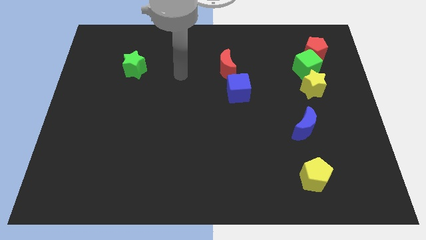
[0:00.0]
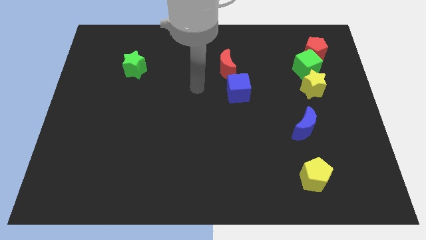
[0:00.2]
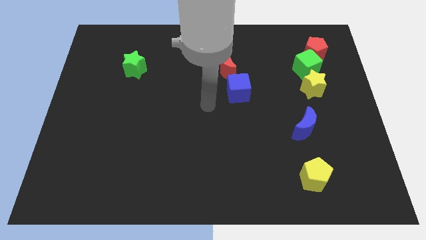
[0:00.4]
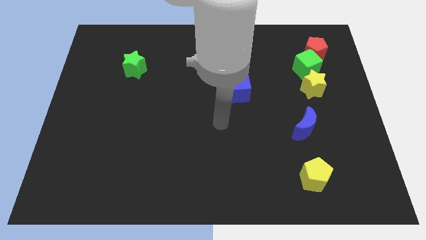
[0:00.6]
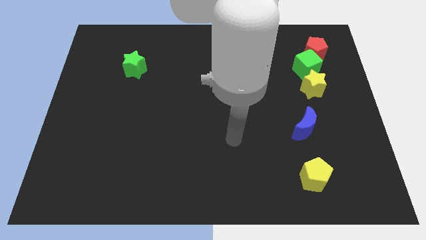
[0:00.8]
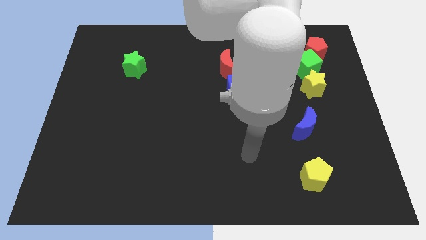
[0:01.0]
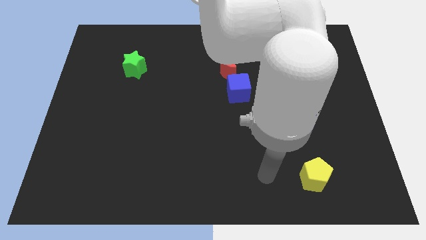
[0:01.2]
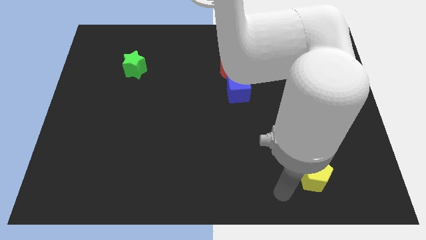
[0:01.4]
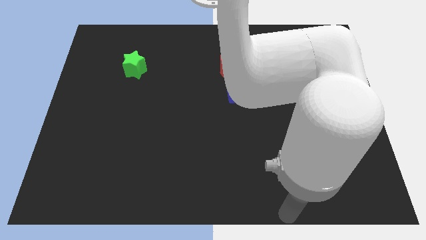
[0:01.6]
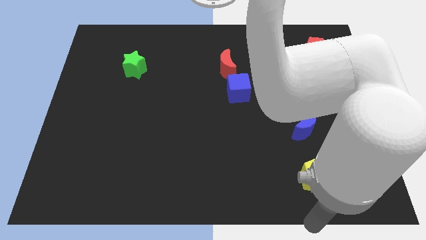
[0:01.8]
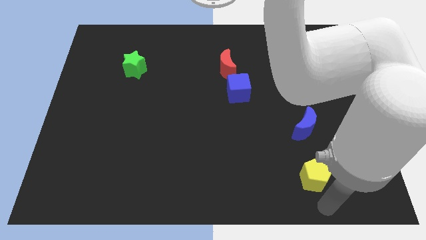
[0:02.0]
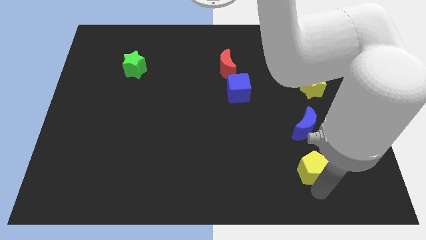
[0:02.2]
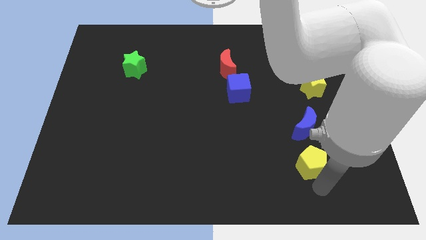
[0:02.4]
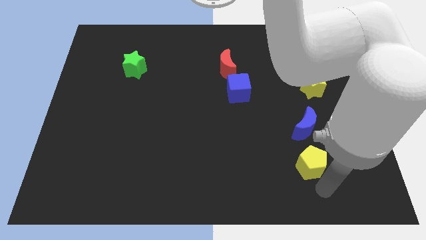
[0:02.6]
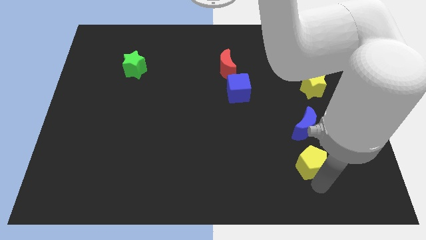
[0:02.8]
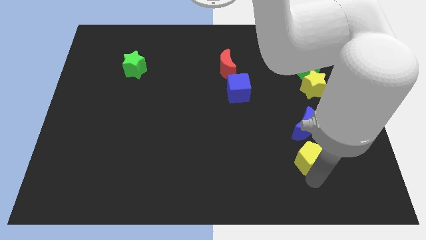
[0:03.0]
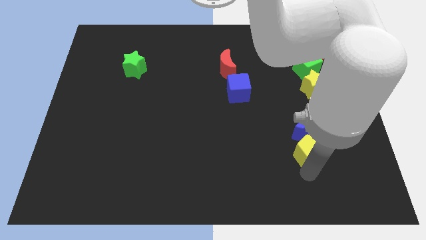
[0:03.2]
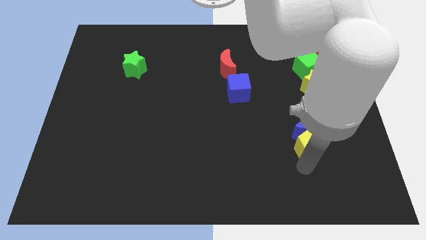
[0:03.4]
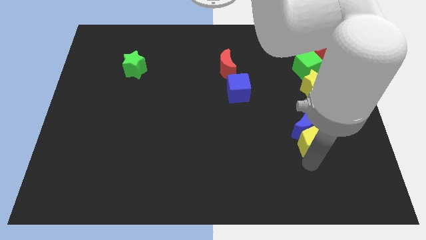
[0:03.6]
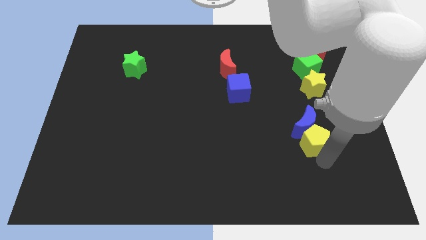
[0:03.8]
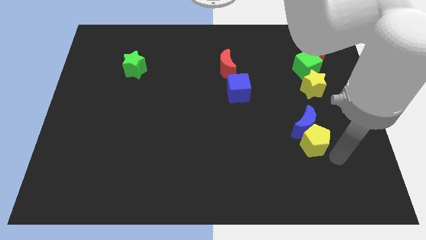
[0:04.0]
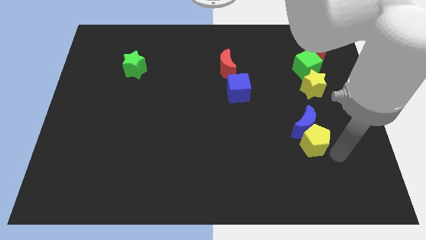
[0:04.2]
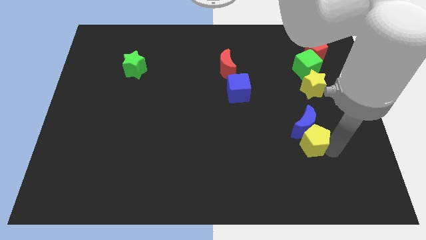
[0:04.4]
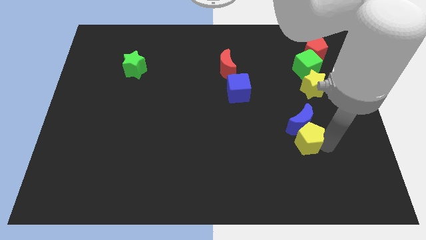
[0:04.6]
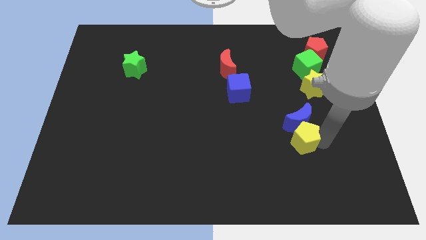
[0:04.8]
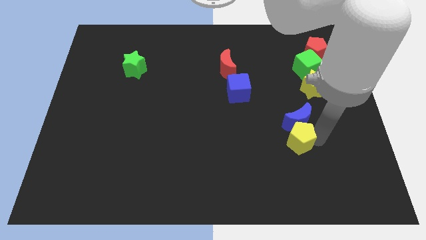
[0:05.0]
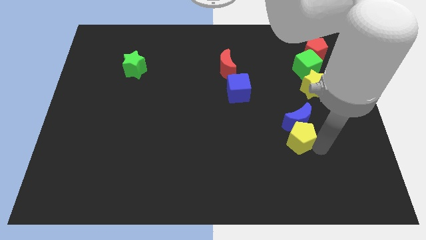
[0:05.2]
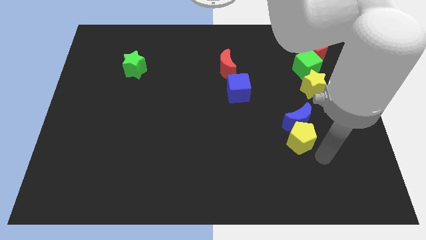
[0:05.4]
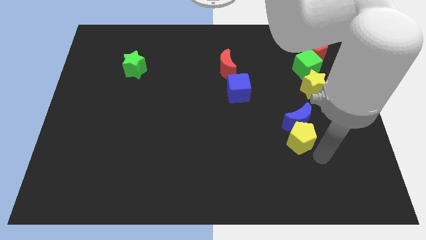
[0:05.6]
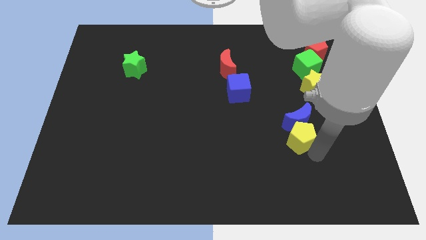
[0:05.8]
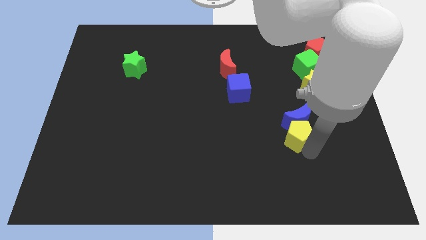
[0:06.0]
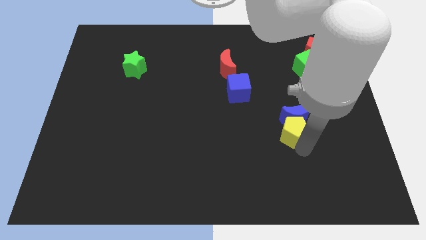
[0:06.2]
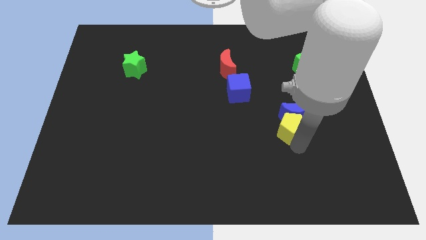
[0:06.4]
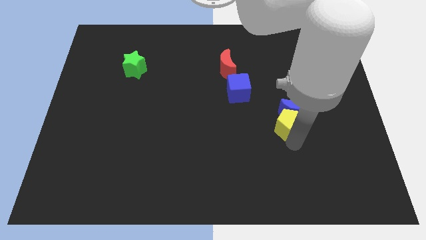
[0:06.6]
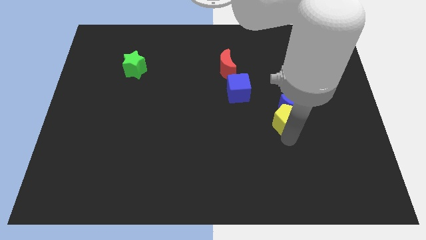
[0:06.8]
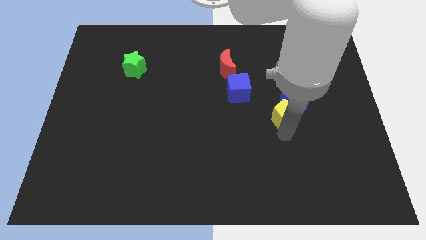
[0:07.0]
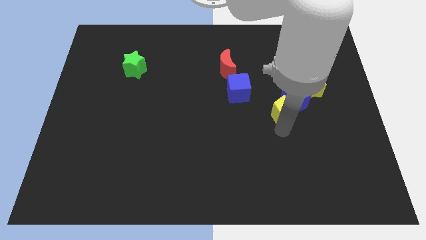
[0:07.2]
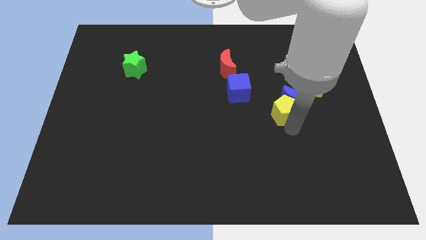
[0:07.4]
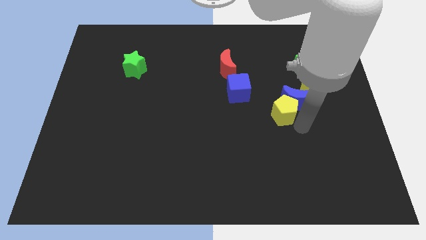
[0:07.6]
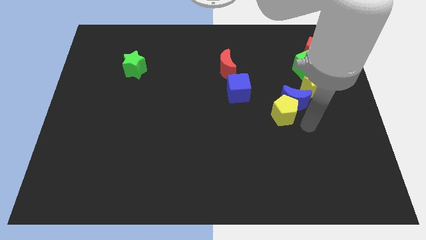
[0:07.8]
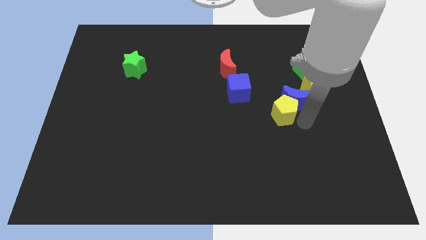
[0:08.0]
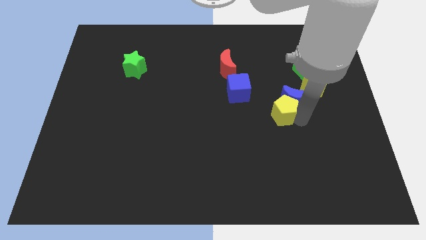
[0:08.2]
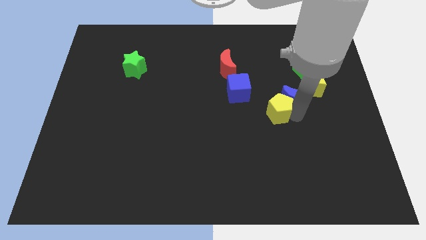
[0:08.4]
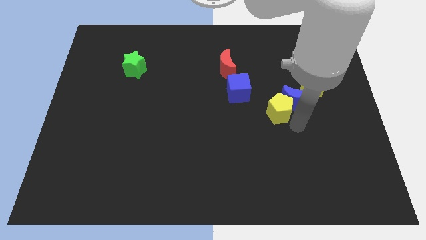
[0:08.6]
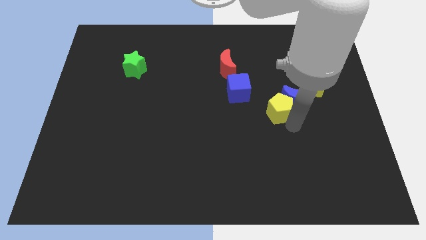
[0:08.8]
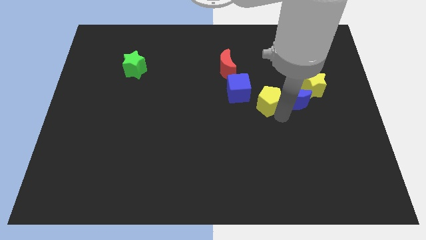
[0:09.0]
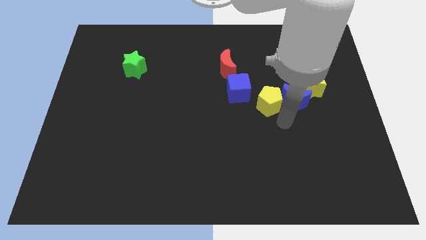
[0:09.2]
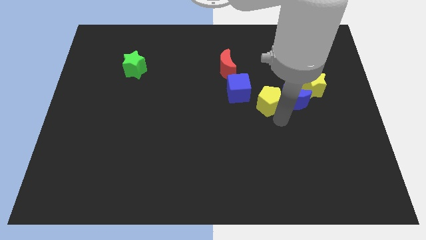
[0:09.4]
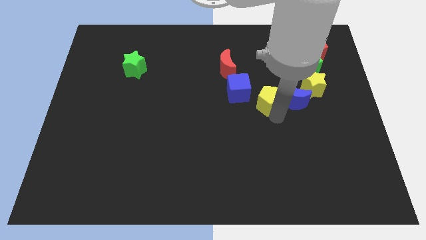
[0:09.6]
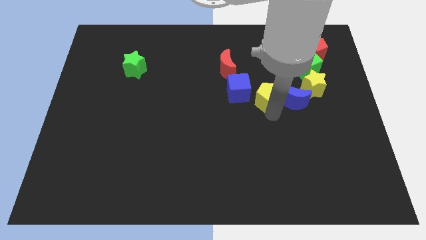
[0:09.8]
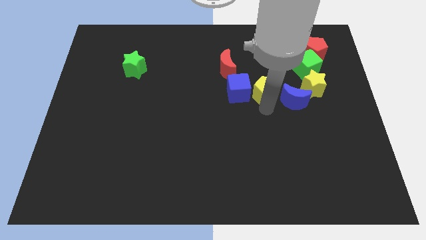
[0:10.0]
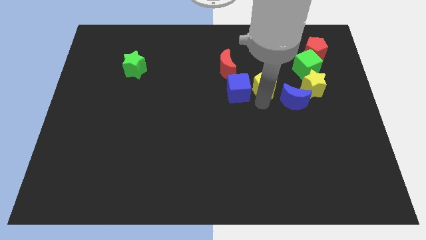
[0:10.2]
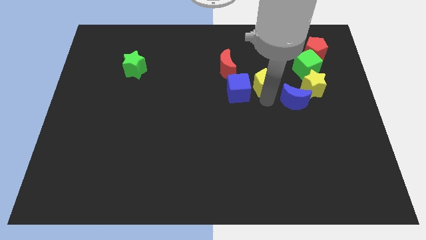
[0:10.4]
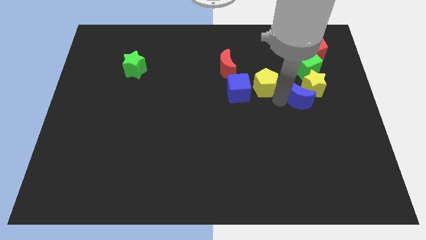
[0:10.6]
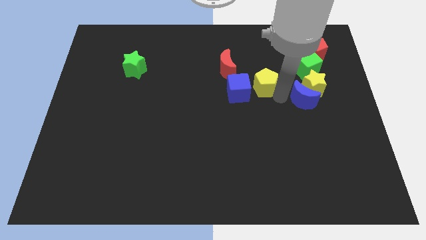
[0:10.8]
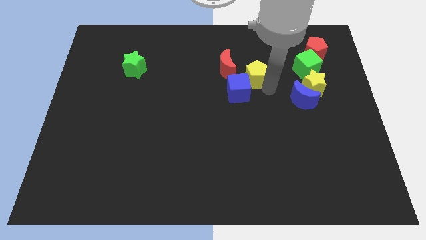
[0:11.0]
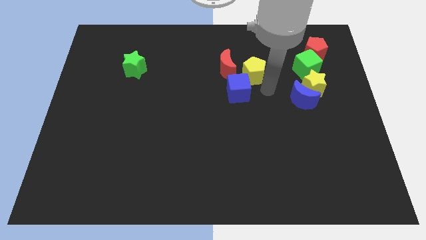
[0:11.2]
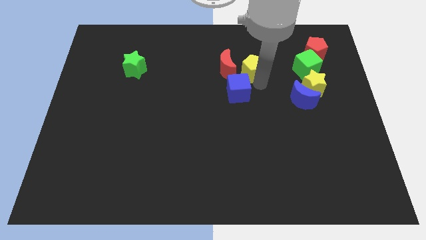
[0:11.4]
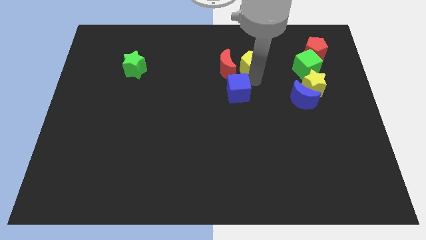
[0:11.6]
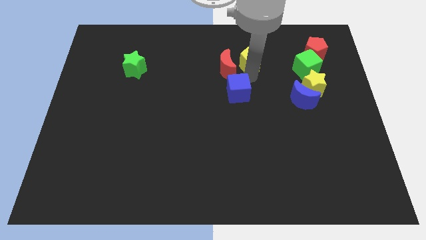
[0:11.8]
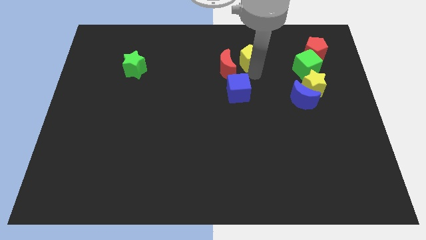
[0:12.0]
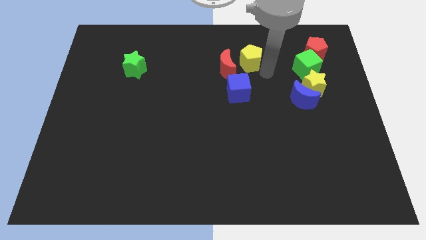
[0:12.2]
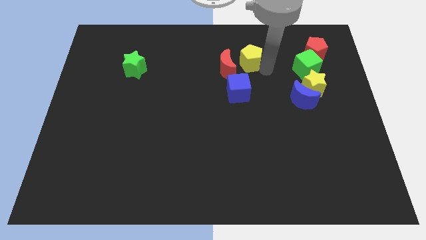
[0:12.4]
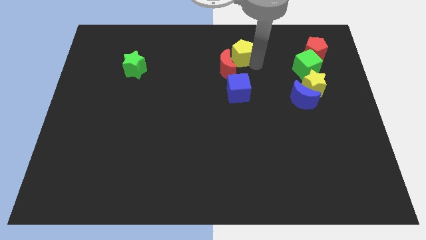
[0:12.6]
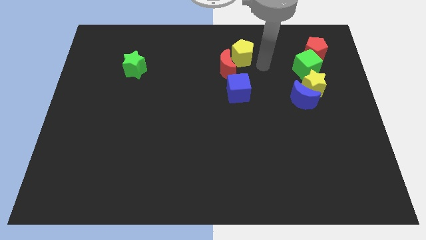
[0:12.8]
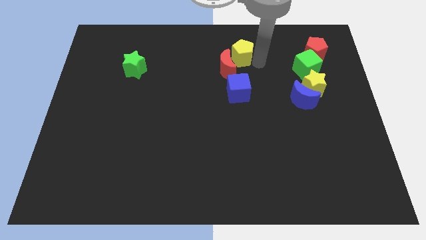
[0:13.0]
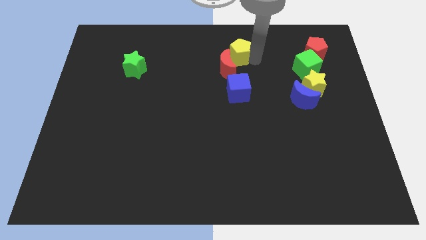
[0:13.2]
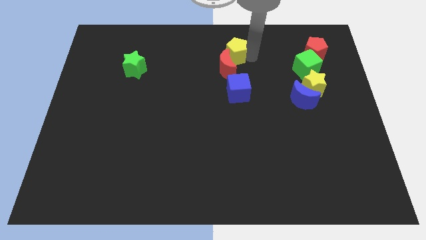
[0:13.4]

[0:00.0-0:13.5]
slide the yellow pentagon to the top side

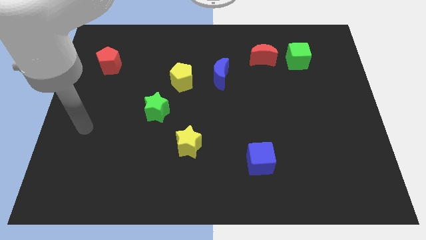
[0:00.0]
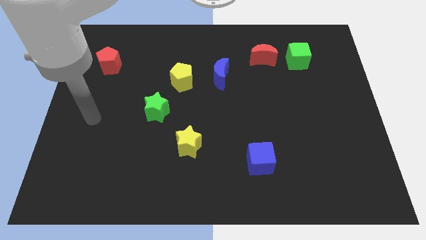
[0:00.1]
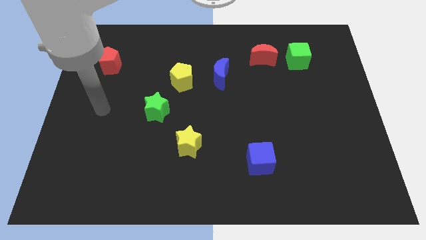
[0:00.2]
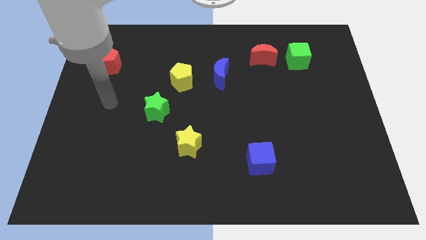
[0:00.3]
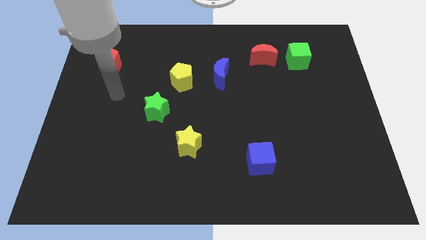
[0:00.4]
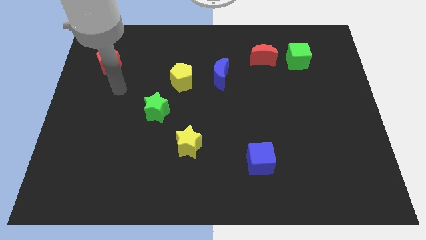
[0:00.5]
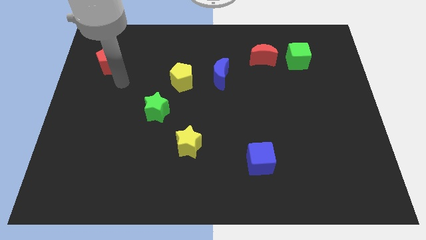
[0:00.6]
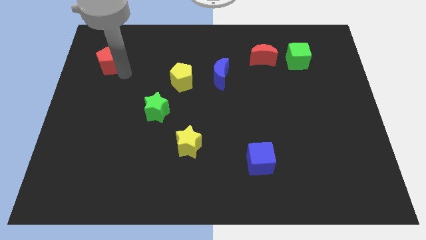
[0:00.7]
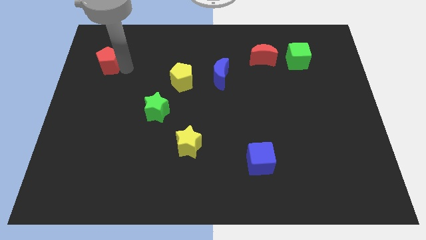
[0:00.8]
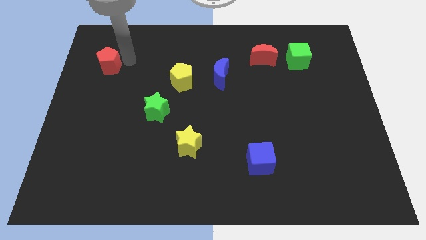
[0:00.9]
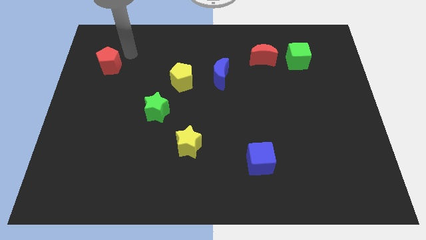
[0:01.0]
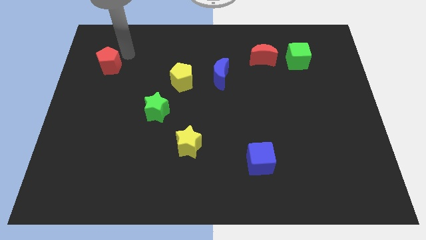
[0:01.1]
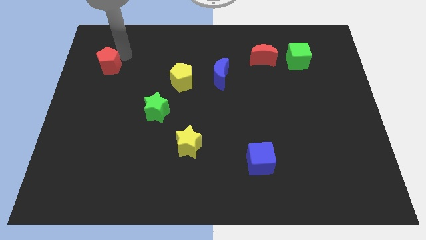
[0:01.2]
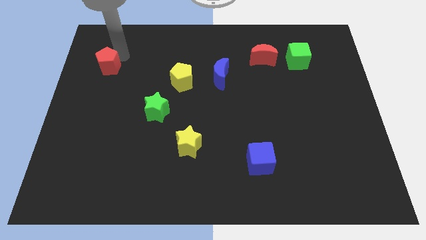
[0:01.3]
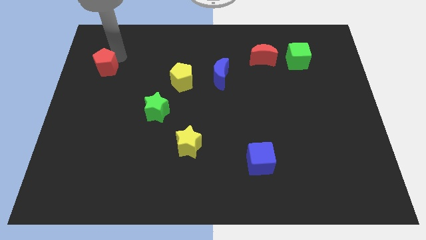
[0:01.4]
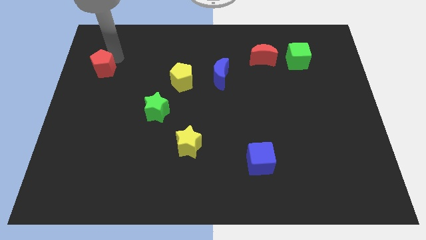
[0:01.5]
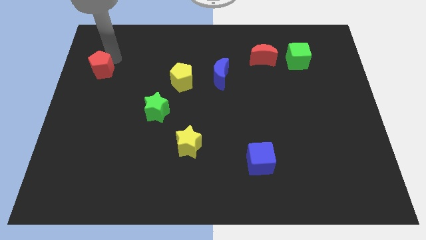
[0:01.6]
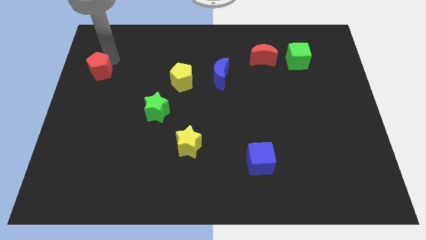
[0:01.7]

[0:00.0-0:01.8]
move the red pentagon to the left side
